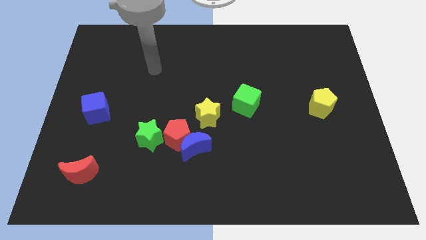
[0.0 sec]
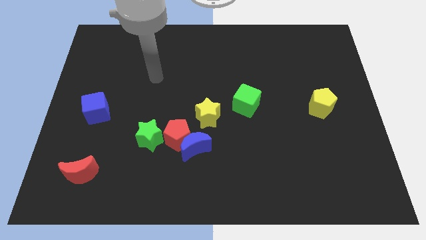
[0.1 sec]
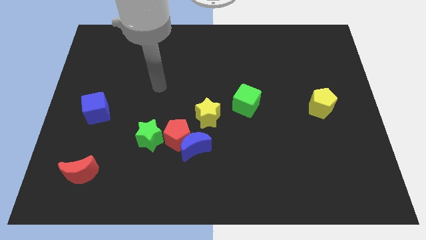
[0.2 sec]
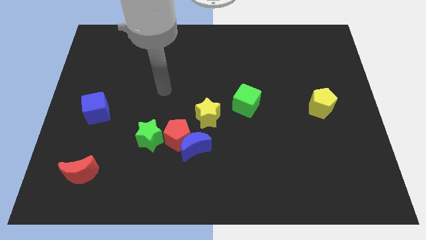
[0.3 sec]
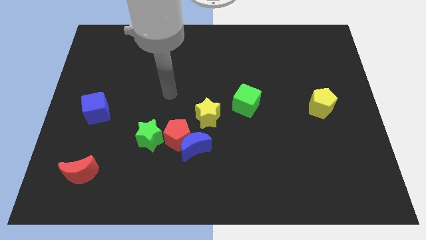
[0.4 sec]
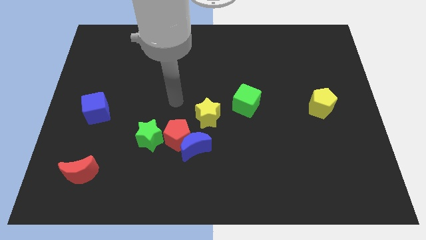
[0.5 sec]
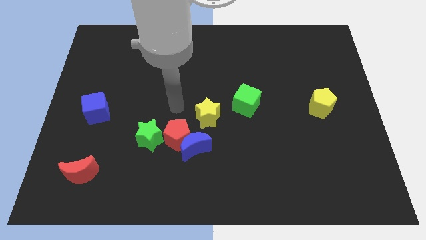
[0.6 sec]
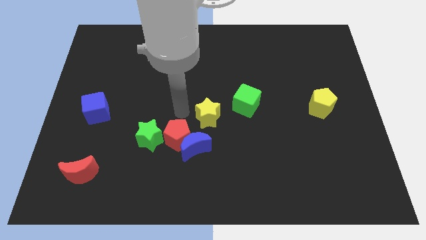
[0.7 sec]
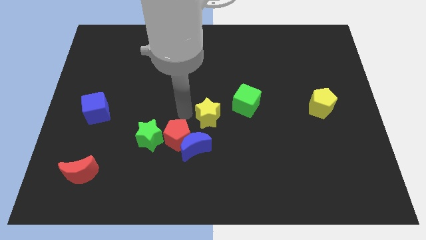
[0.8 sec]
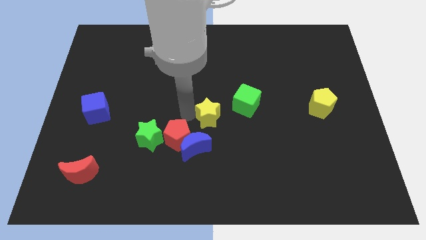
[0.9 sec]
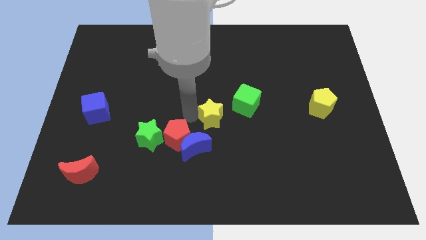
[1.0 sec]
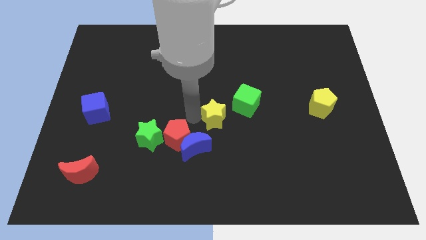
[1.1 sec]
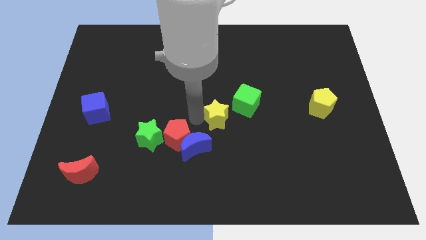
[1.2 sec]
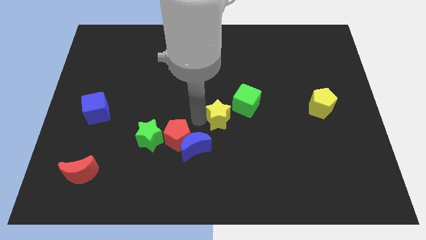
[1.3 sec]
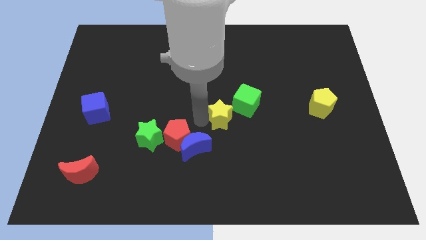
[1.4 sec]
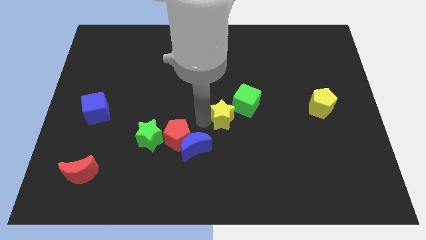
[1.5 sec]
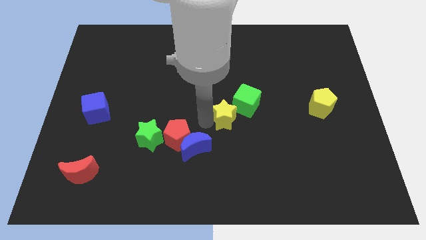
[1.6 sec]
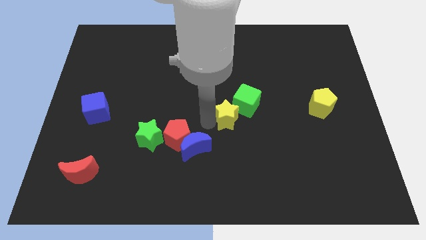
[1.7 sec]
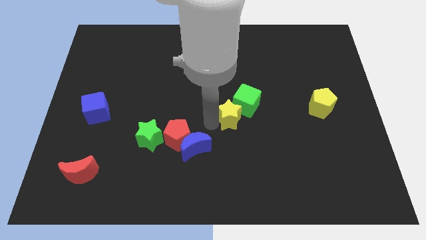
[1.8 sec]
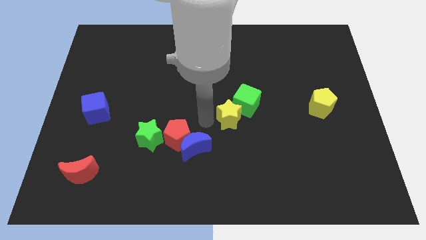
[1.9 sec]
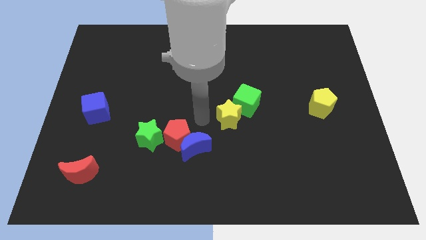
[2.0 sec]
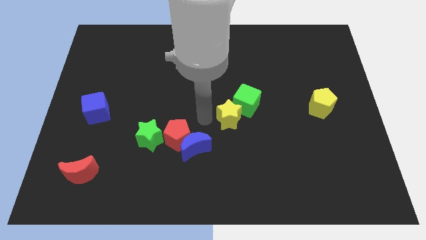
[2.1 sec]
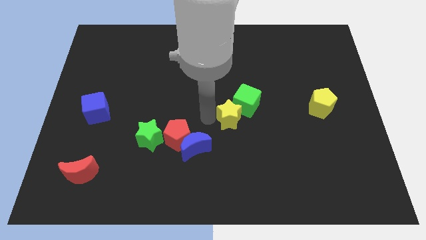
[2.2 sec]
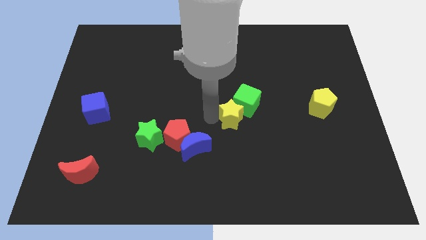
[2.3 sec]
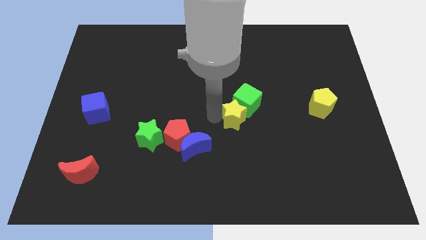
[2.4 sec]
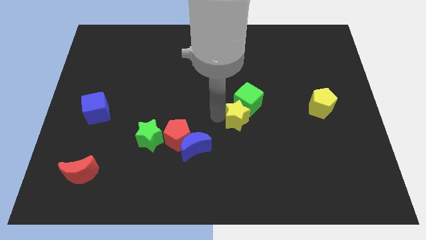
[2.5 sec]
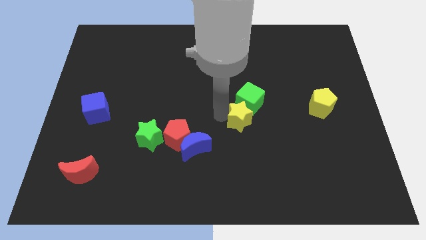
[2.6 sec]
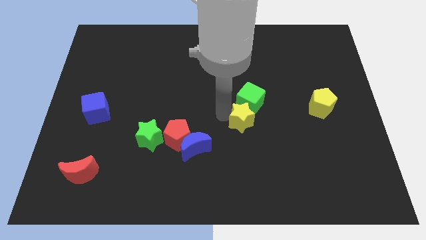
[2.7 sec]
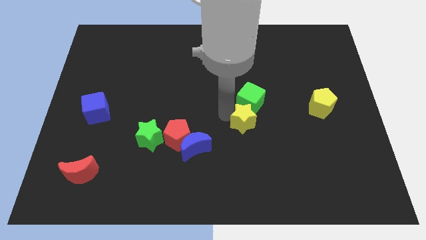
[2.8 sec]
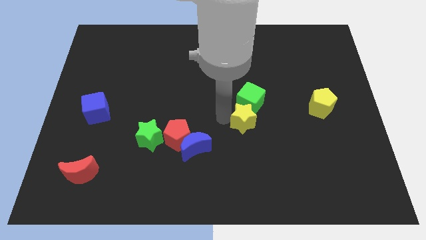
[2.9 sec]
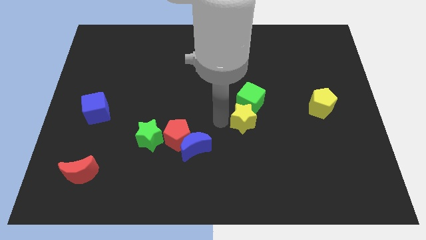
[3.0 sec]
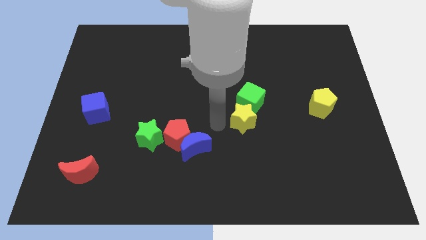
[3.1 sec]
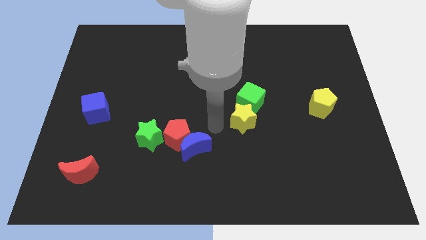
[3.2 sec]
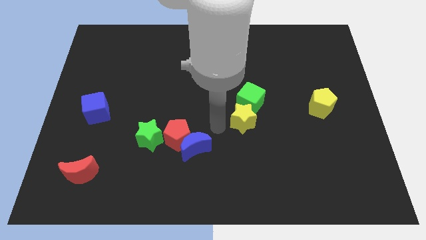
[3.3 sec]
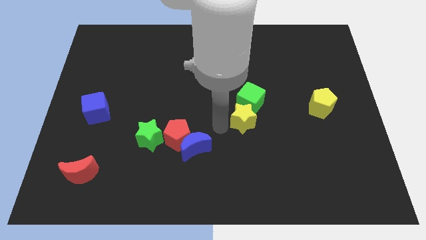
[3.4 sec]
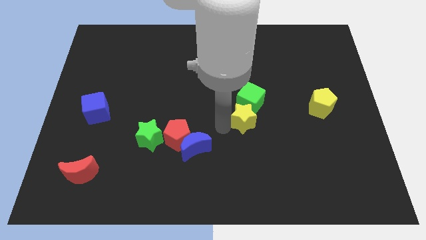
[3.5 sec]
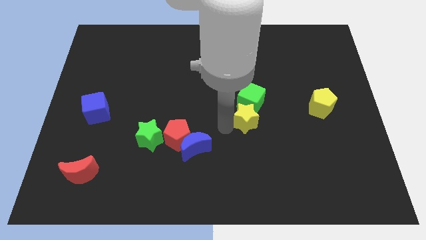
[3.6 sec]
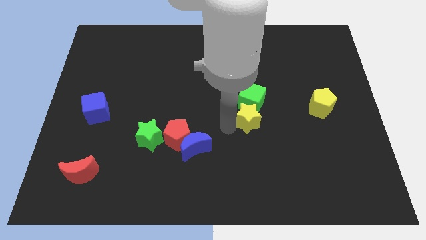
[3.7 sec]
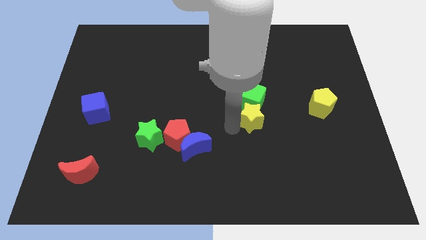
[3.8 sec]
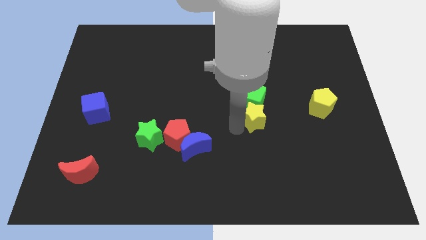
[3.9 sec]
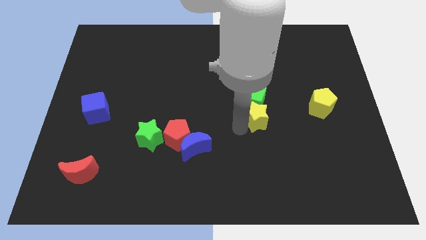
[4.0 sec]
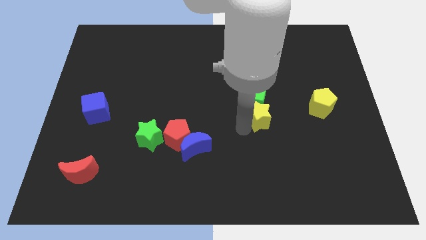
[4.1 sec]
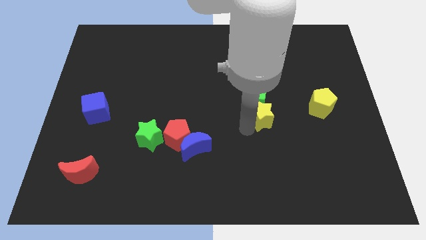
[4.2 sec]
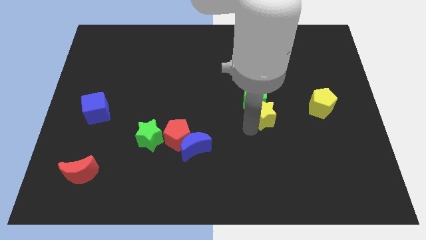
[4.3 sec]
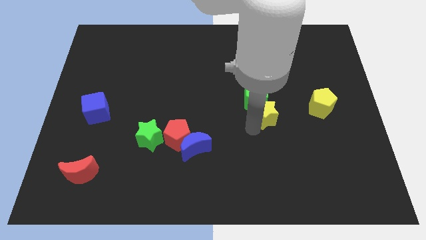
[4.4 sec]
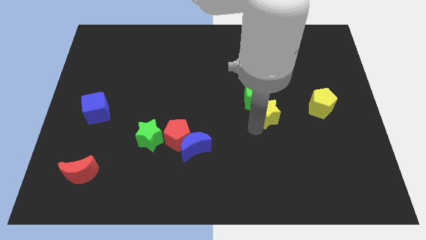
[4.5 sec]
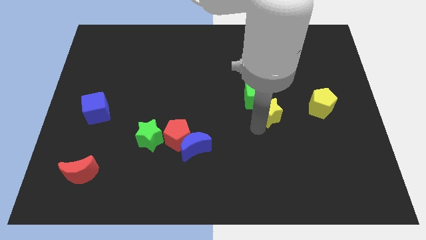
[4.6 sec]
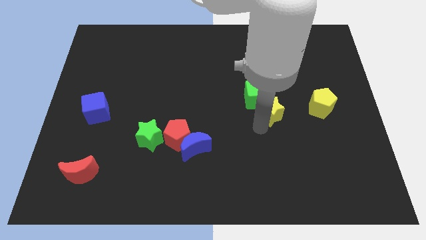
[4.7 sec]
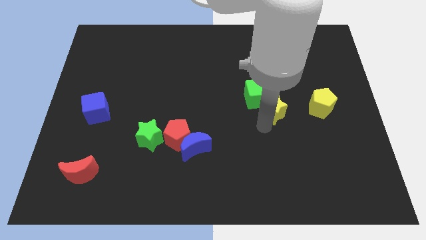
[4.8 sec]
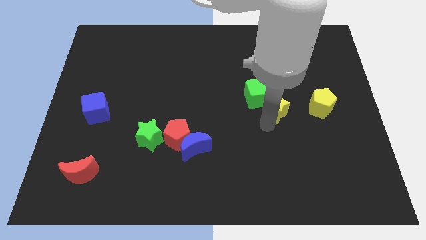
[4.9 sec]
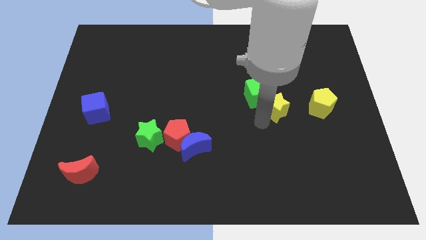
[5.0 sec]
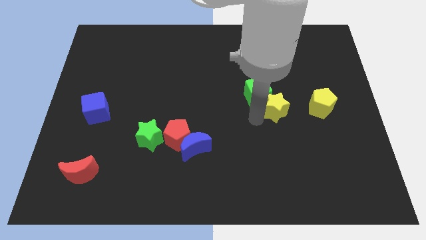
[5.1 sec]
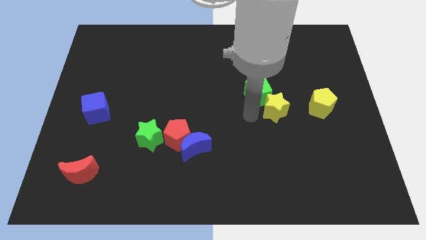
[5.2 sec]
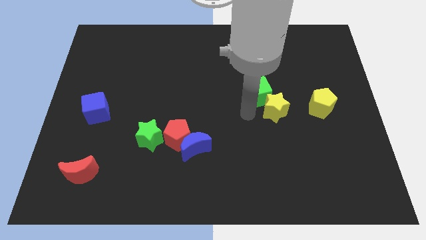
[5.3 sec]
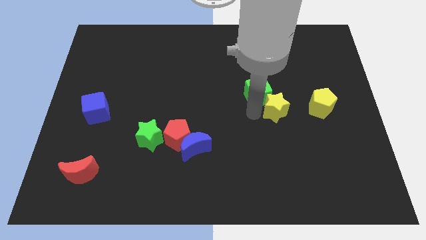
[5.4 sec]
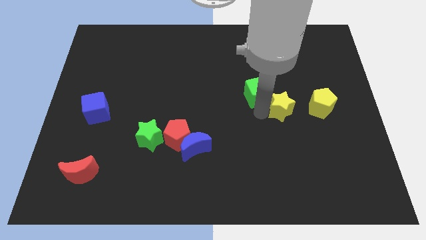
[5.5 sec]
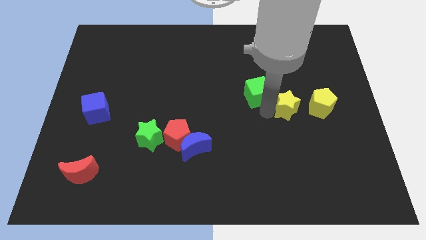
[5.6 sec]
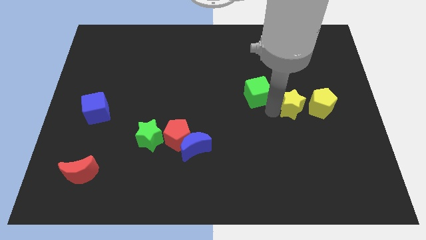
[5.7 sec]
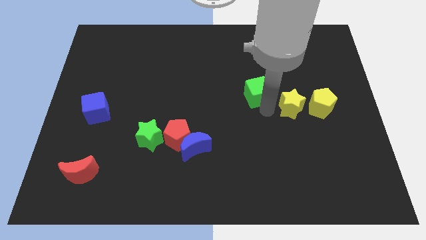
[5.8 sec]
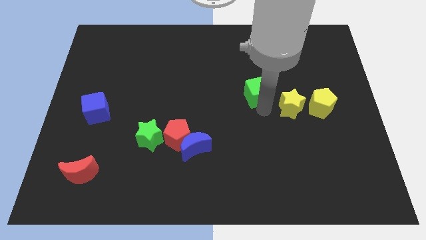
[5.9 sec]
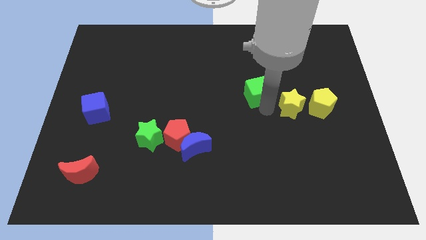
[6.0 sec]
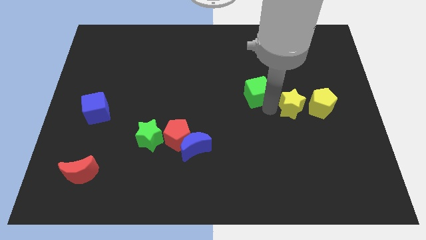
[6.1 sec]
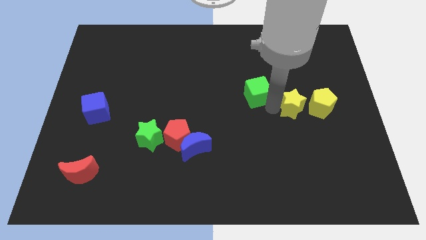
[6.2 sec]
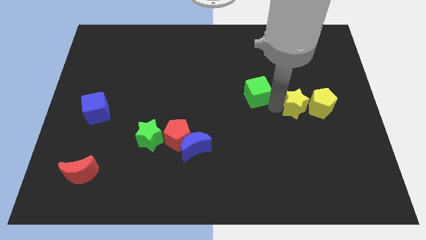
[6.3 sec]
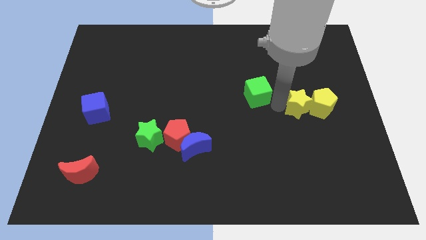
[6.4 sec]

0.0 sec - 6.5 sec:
slide the yellow star close to the yellow pentagon

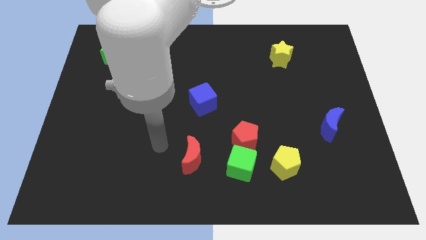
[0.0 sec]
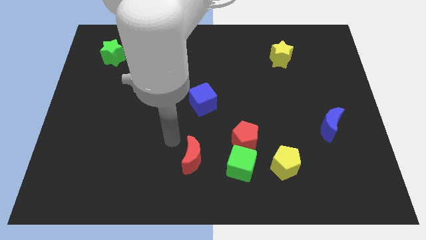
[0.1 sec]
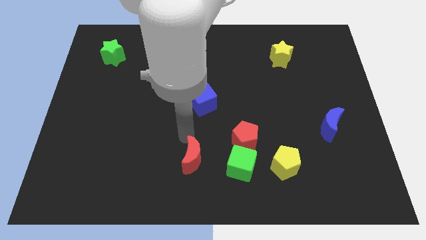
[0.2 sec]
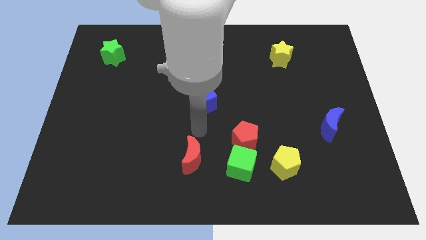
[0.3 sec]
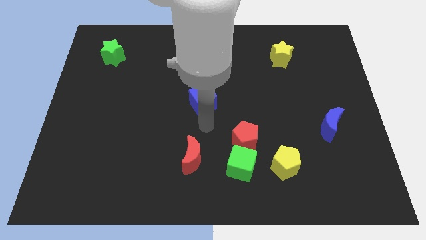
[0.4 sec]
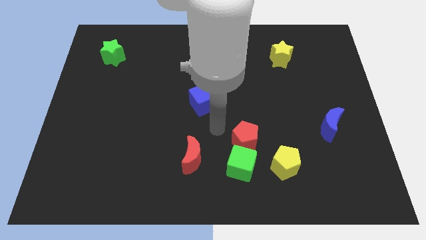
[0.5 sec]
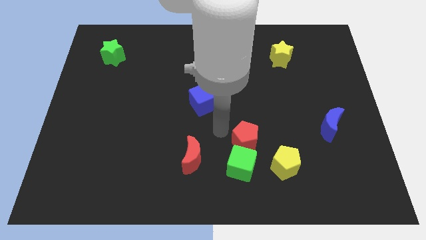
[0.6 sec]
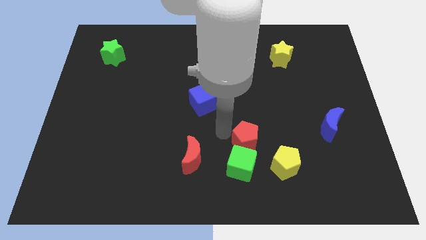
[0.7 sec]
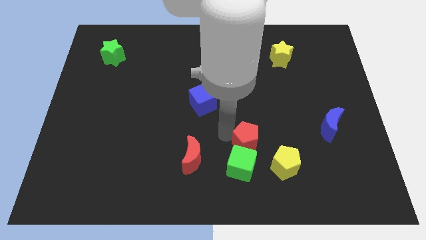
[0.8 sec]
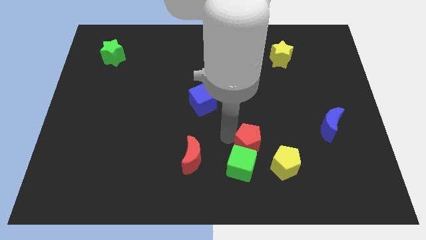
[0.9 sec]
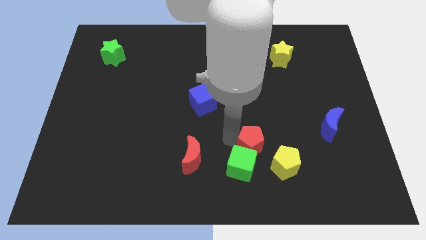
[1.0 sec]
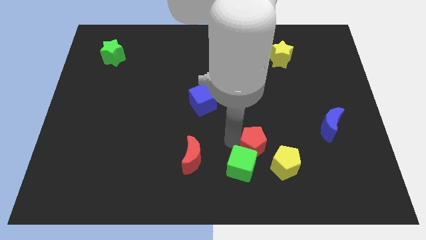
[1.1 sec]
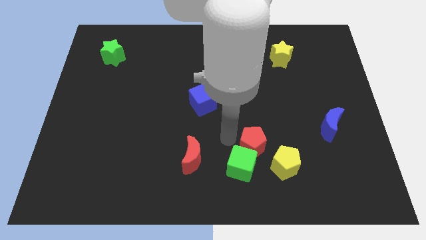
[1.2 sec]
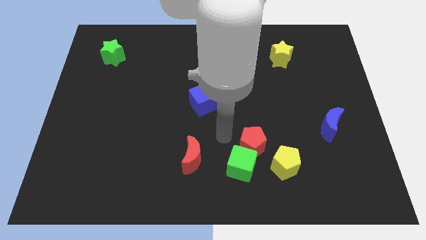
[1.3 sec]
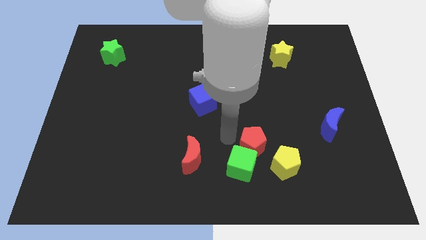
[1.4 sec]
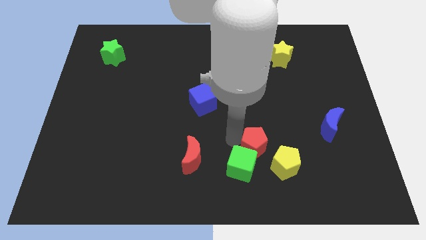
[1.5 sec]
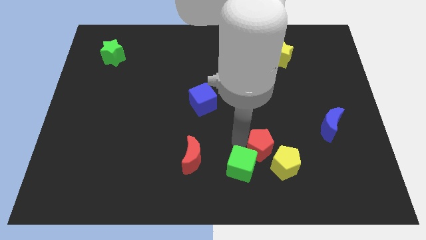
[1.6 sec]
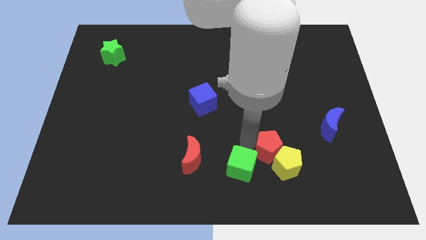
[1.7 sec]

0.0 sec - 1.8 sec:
put the red pentagon next to the yellow pentagon
